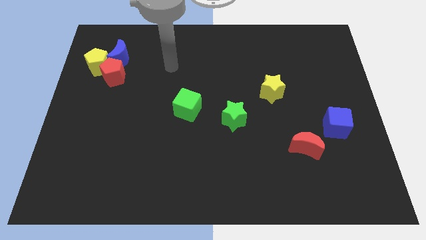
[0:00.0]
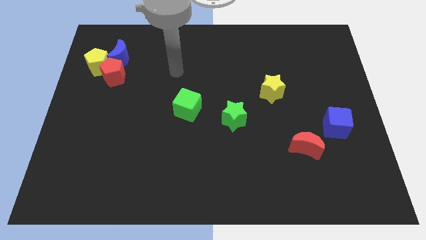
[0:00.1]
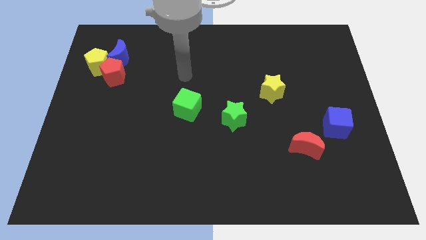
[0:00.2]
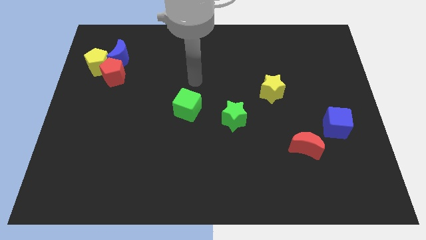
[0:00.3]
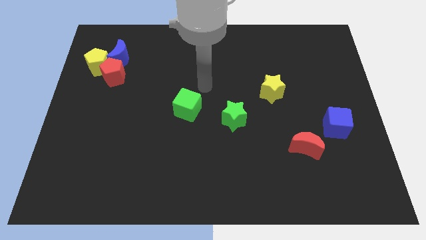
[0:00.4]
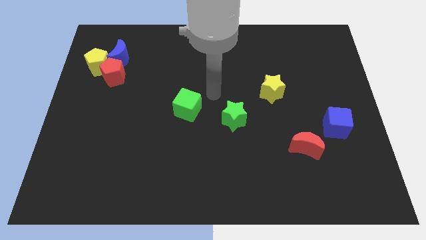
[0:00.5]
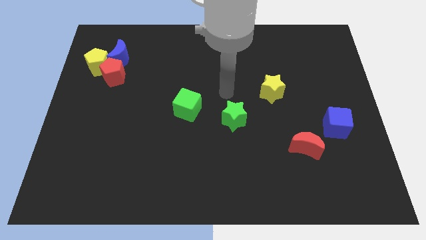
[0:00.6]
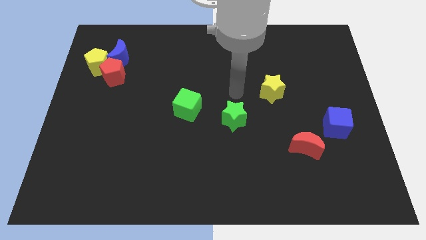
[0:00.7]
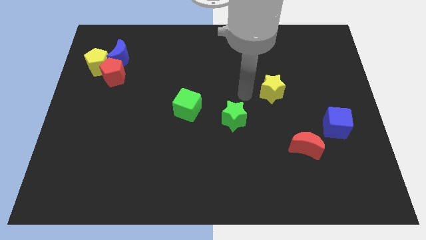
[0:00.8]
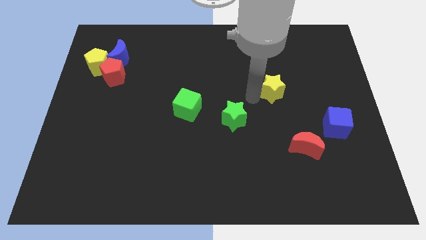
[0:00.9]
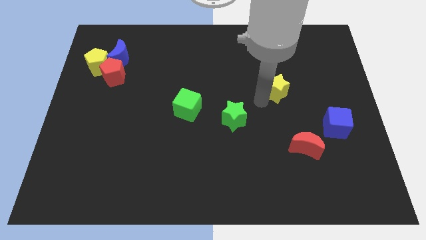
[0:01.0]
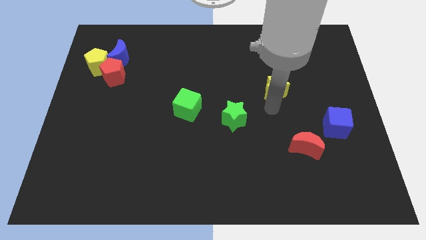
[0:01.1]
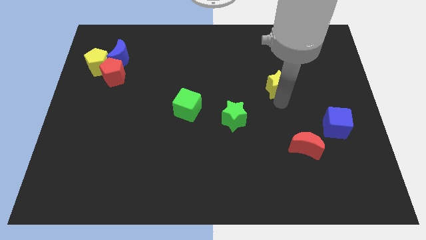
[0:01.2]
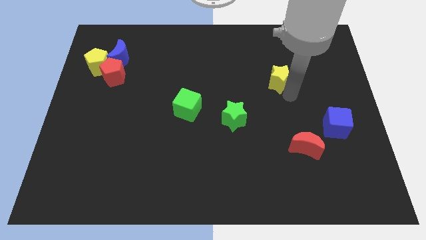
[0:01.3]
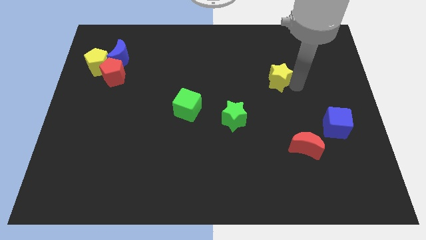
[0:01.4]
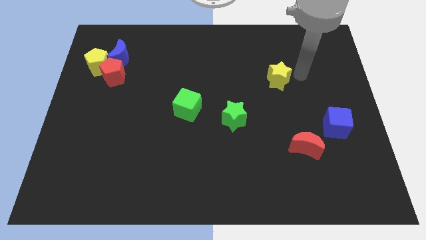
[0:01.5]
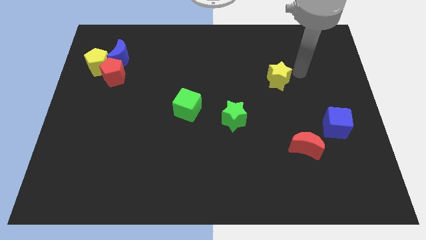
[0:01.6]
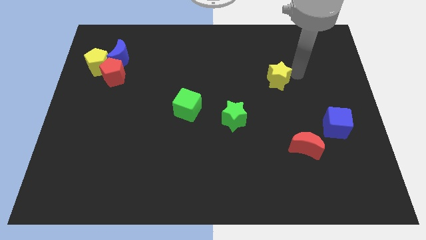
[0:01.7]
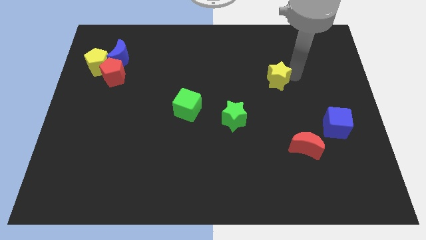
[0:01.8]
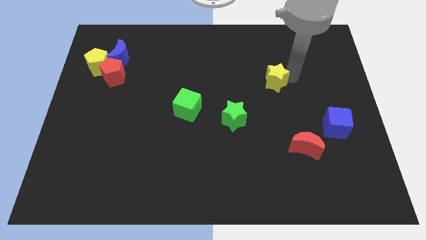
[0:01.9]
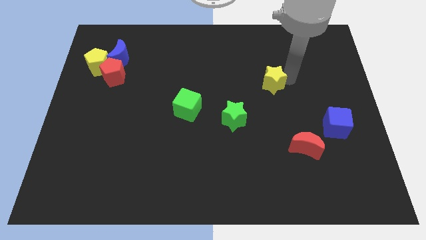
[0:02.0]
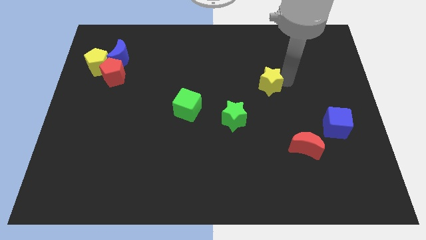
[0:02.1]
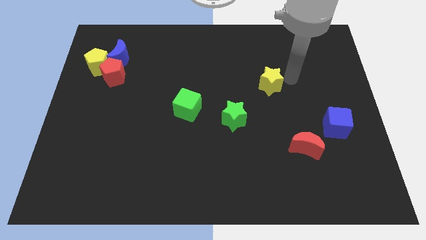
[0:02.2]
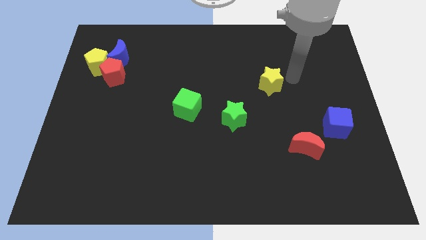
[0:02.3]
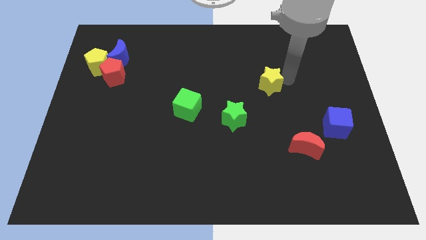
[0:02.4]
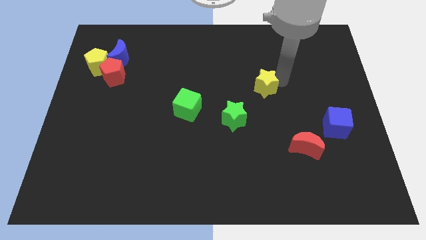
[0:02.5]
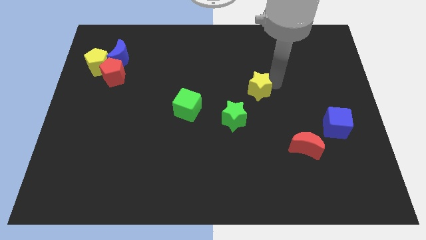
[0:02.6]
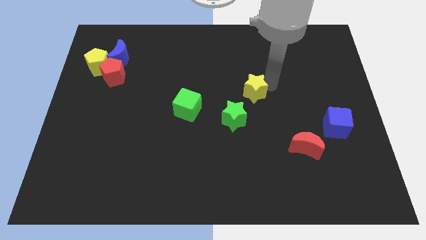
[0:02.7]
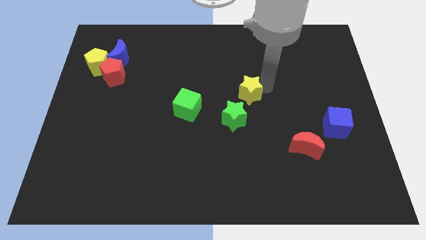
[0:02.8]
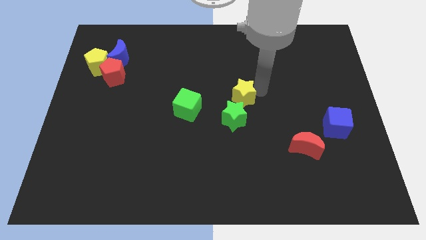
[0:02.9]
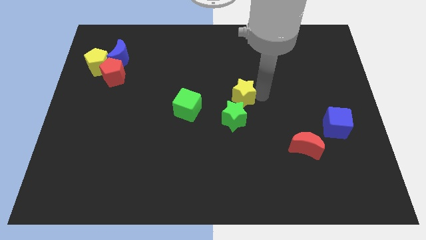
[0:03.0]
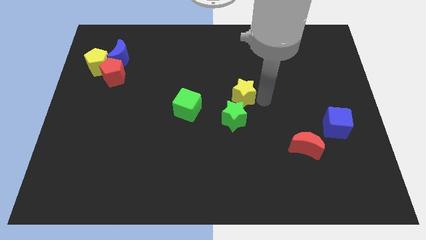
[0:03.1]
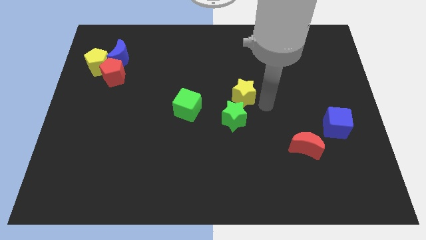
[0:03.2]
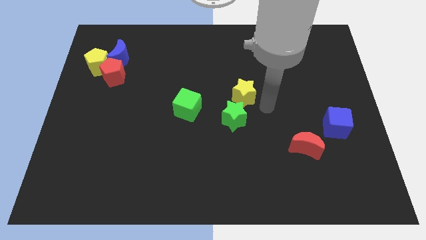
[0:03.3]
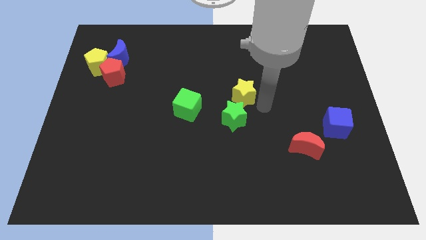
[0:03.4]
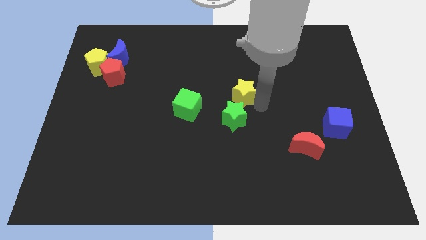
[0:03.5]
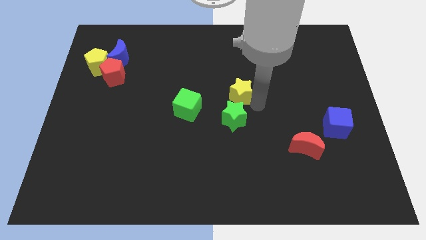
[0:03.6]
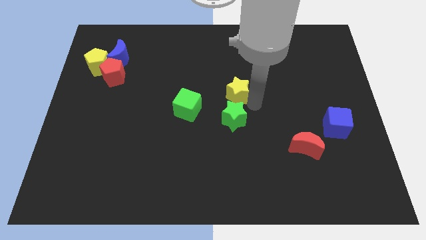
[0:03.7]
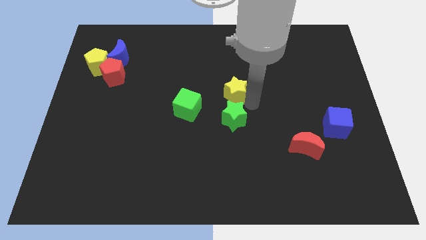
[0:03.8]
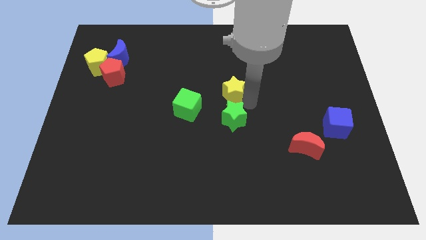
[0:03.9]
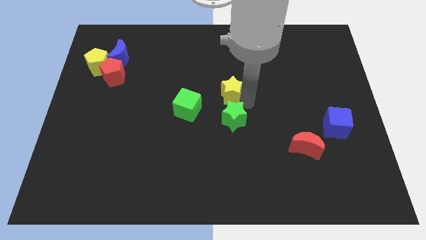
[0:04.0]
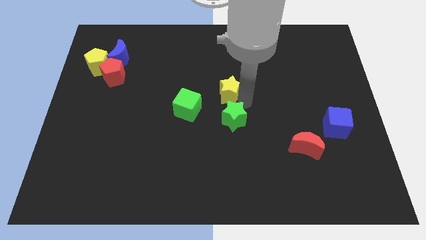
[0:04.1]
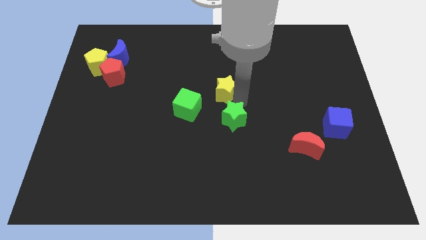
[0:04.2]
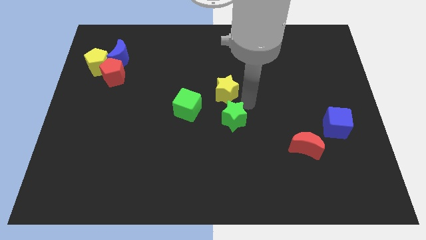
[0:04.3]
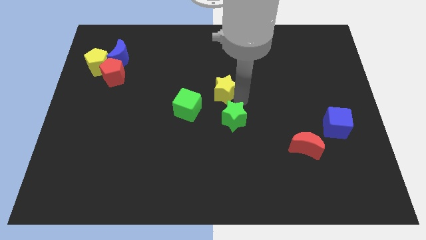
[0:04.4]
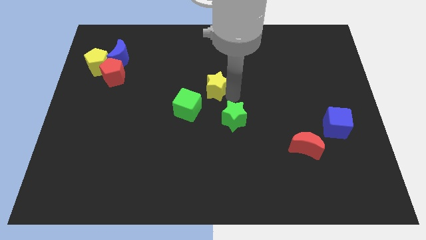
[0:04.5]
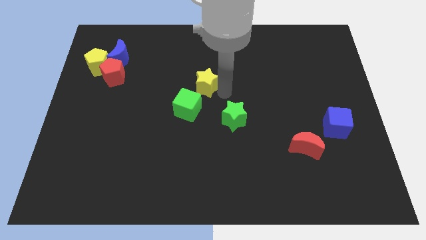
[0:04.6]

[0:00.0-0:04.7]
move the yellow star above the green cube

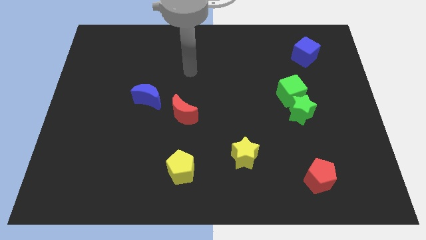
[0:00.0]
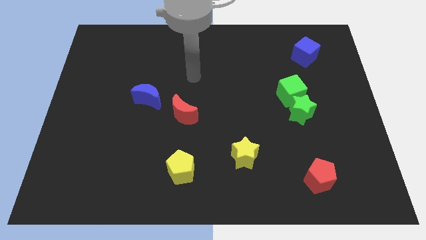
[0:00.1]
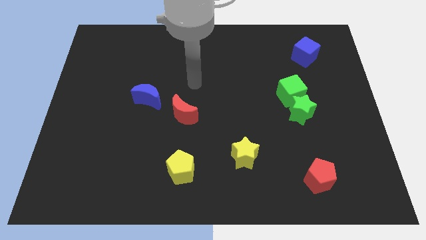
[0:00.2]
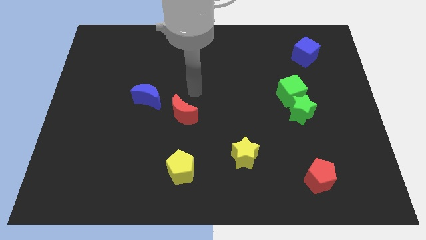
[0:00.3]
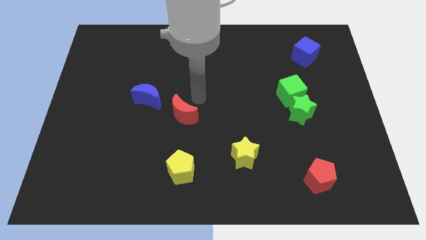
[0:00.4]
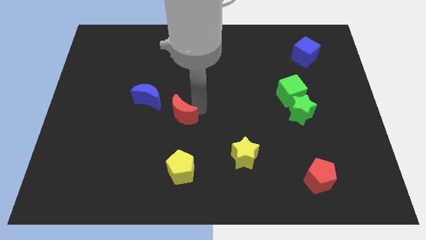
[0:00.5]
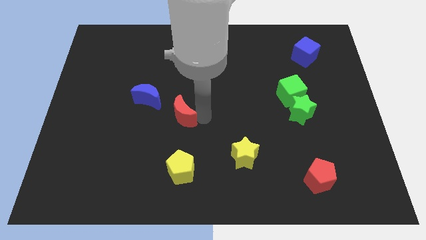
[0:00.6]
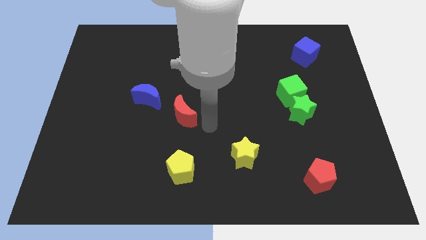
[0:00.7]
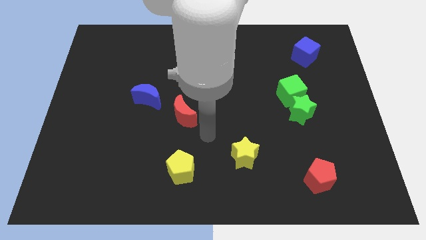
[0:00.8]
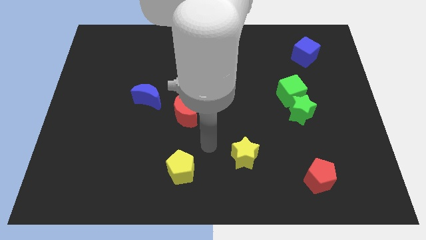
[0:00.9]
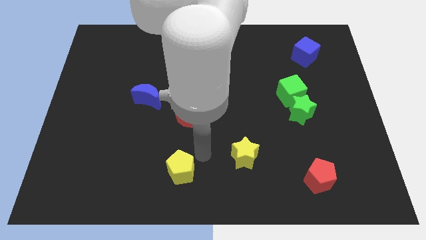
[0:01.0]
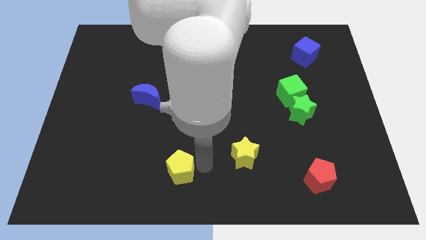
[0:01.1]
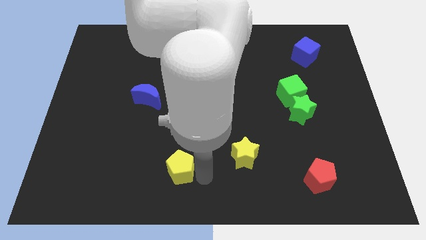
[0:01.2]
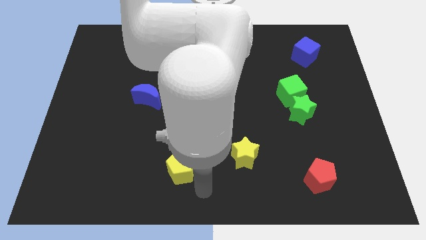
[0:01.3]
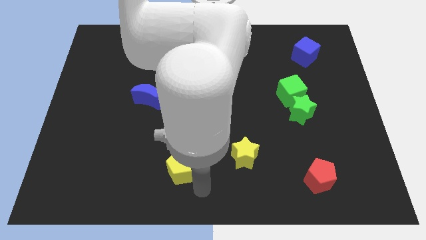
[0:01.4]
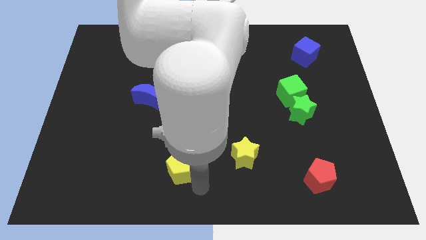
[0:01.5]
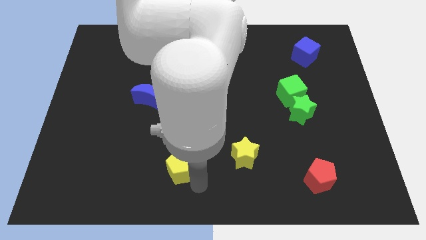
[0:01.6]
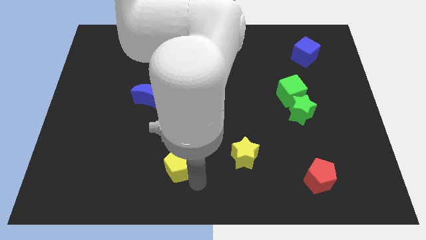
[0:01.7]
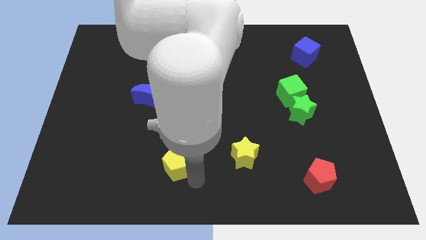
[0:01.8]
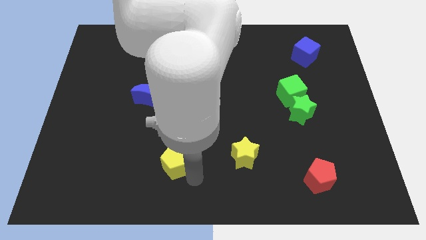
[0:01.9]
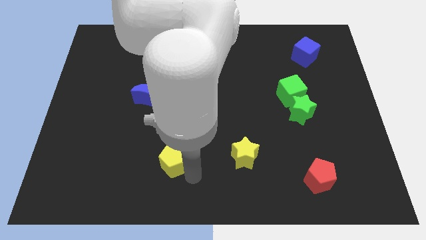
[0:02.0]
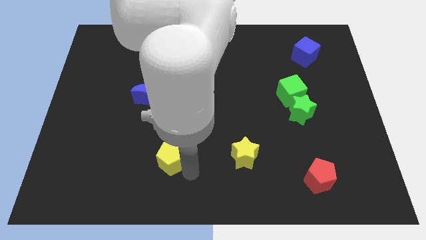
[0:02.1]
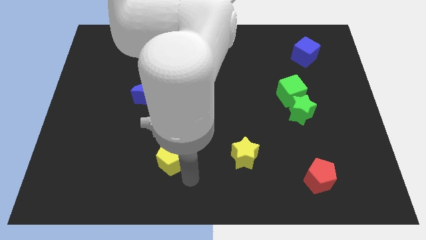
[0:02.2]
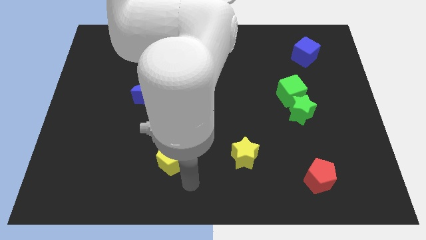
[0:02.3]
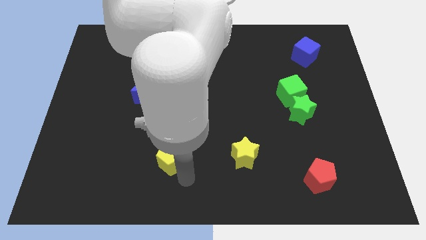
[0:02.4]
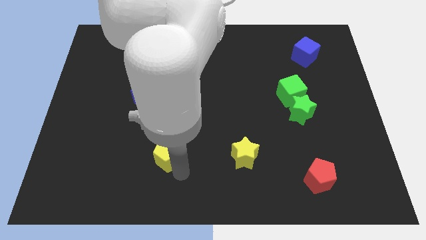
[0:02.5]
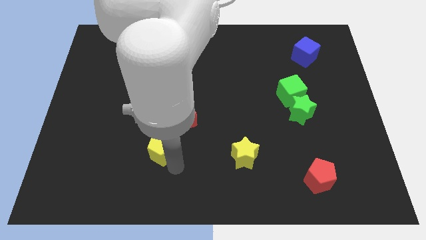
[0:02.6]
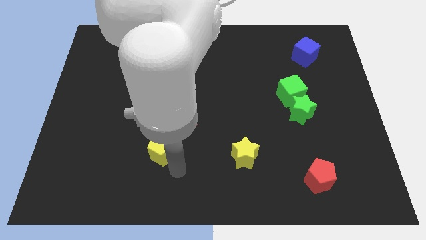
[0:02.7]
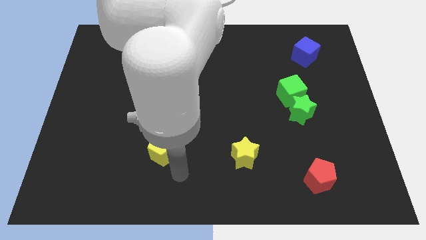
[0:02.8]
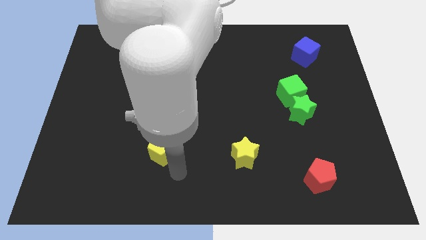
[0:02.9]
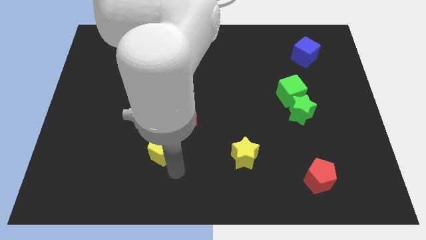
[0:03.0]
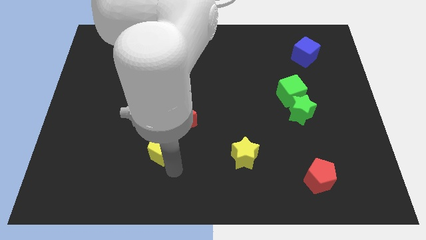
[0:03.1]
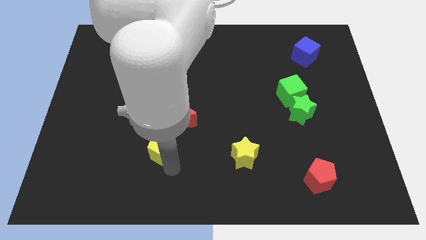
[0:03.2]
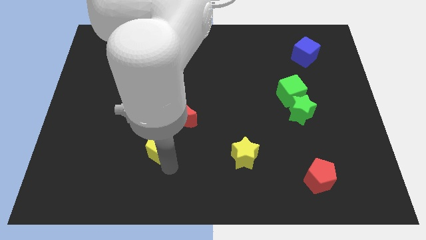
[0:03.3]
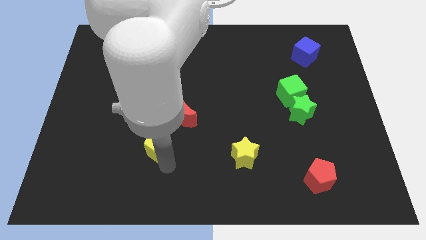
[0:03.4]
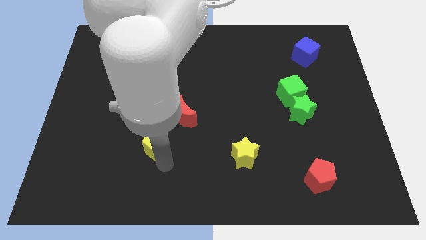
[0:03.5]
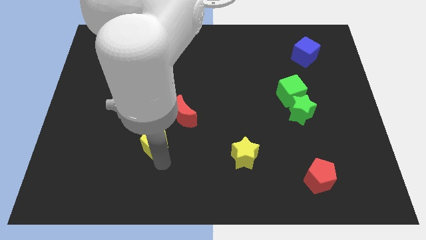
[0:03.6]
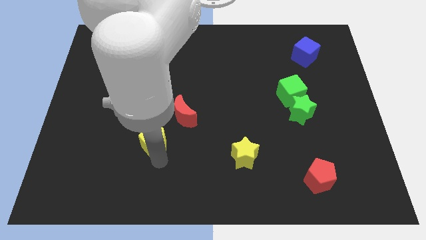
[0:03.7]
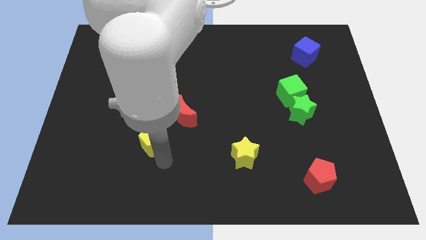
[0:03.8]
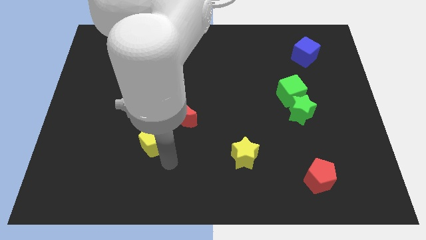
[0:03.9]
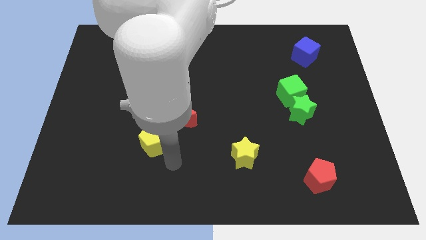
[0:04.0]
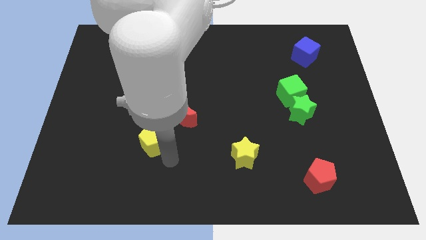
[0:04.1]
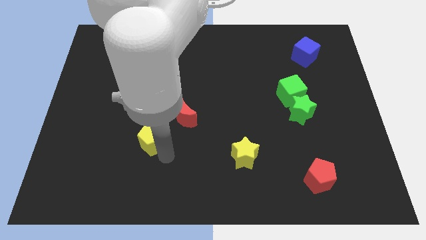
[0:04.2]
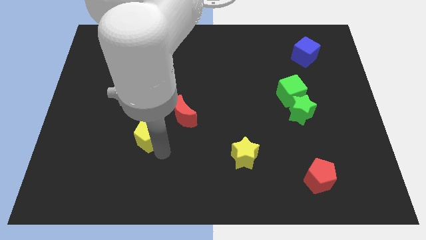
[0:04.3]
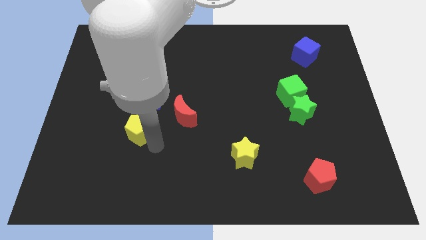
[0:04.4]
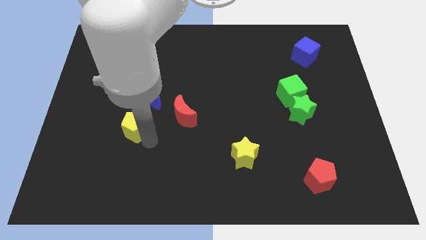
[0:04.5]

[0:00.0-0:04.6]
put the yellow pentagon to the bottom left side of the blue moon
